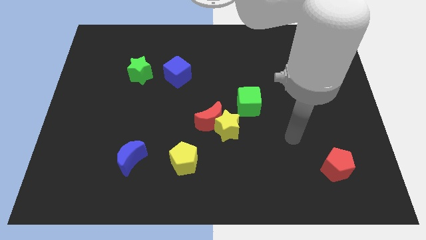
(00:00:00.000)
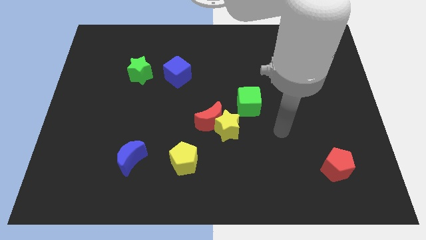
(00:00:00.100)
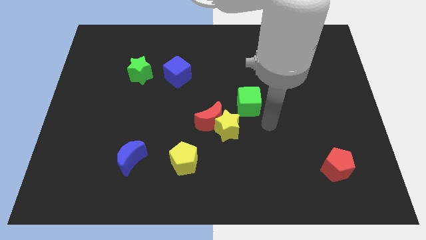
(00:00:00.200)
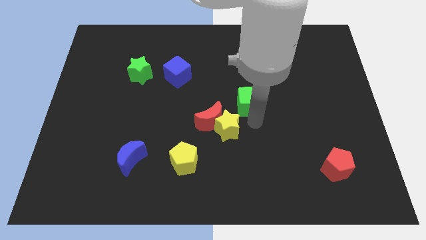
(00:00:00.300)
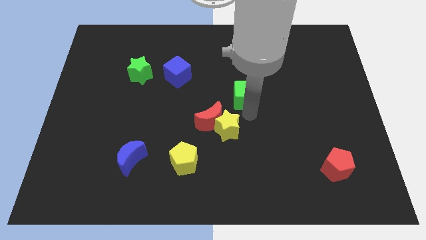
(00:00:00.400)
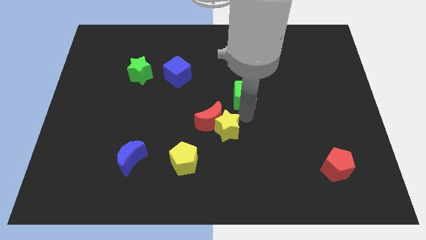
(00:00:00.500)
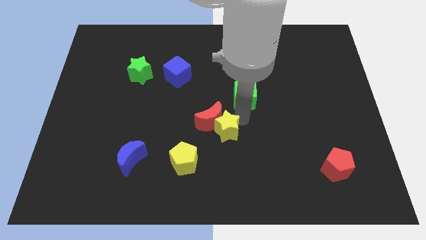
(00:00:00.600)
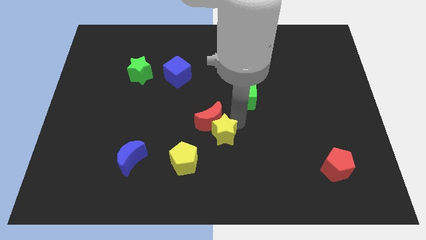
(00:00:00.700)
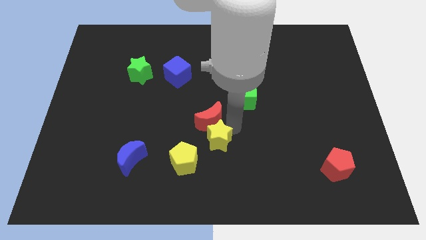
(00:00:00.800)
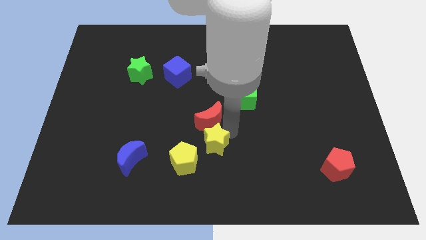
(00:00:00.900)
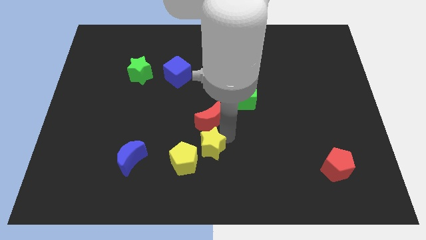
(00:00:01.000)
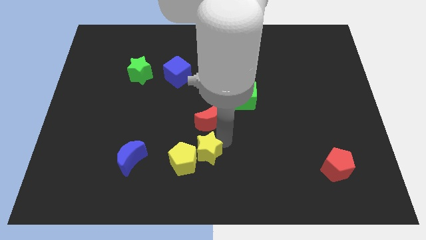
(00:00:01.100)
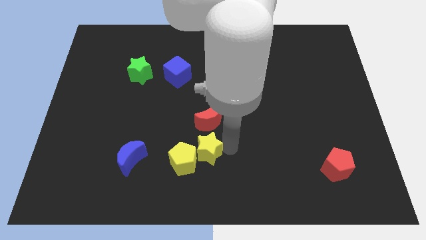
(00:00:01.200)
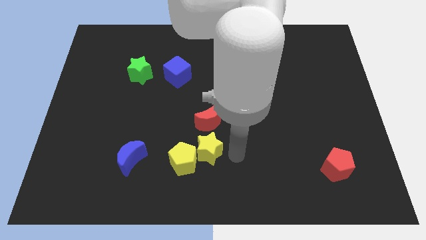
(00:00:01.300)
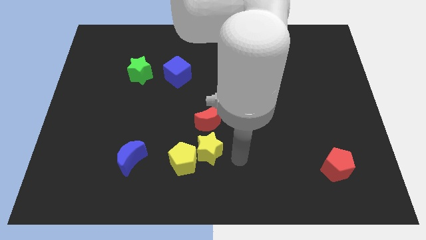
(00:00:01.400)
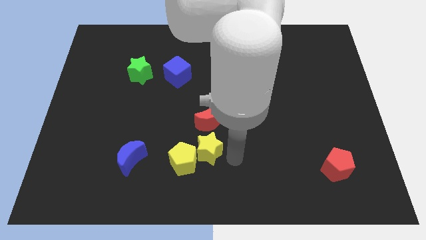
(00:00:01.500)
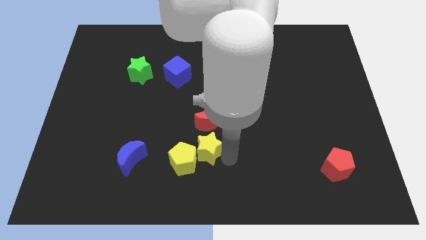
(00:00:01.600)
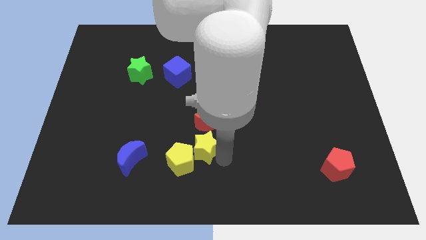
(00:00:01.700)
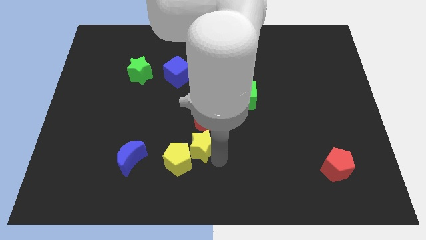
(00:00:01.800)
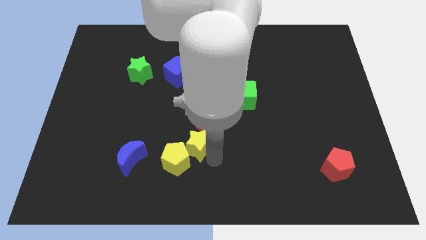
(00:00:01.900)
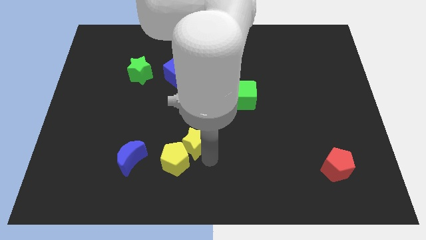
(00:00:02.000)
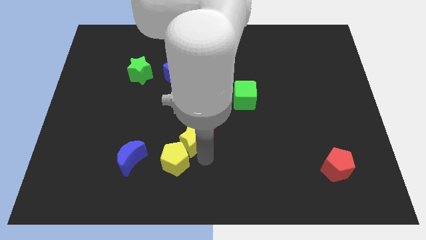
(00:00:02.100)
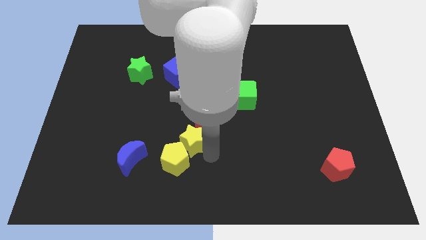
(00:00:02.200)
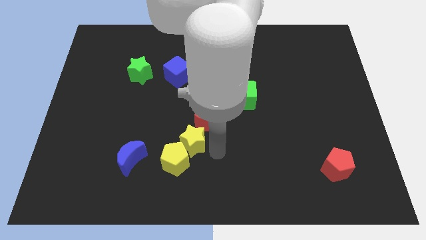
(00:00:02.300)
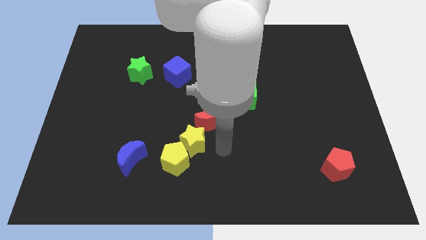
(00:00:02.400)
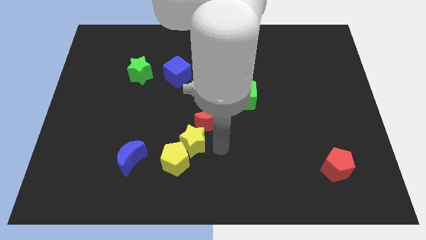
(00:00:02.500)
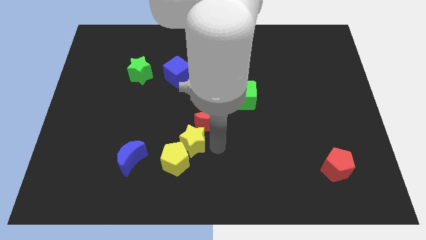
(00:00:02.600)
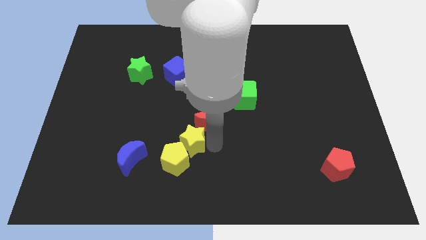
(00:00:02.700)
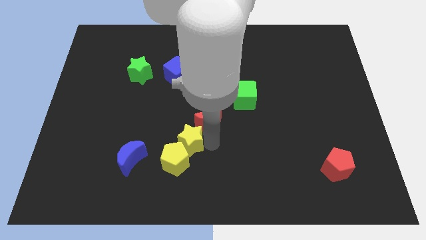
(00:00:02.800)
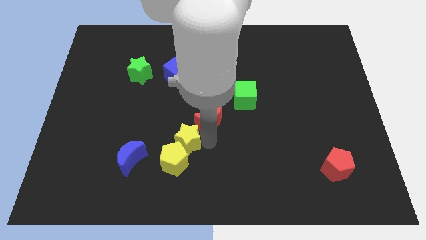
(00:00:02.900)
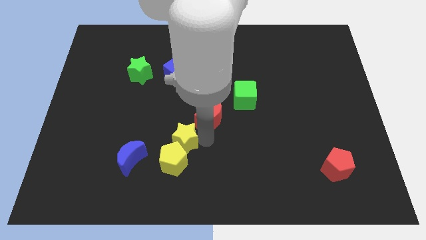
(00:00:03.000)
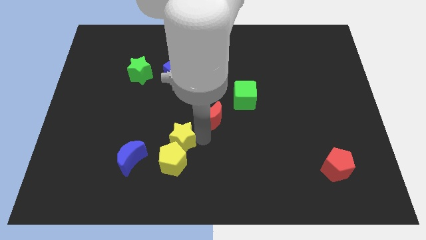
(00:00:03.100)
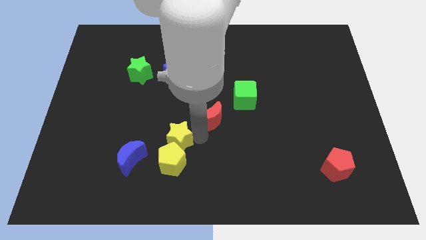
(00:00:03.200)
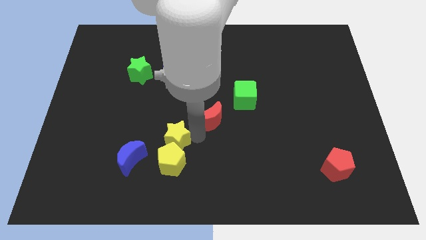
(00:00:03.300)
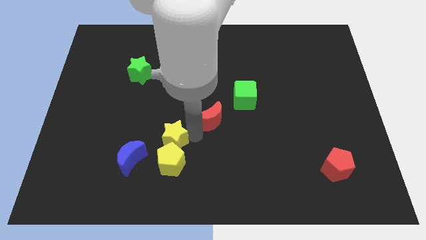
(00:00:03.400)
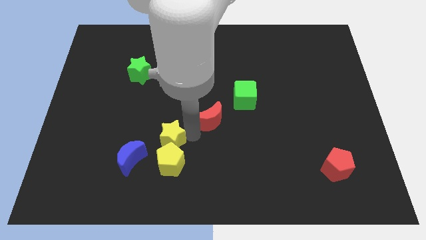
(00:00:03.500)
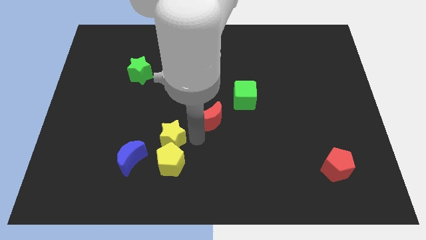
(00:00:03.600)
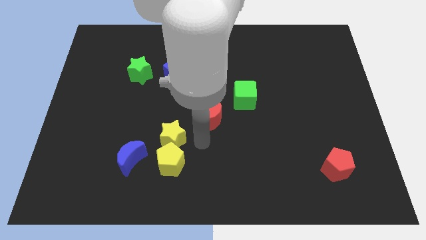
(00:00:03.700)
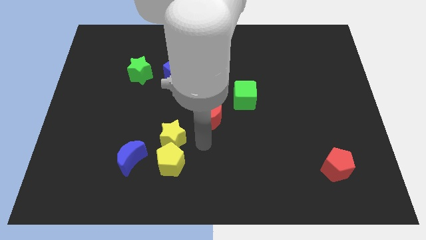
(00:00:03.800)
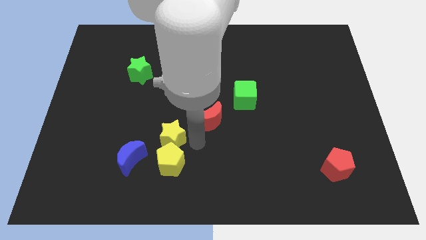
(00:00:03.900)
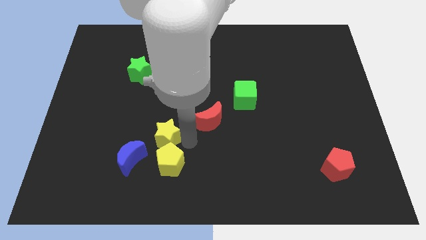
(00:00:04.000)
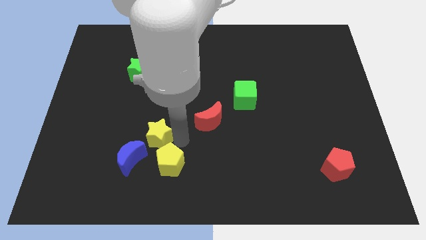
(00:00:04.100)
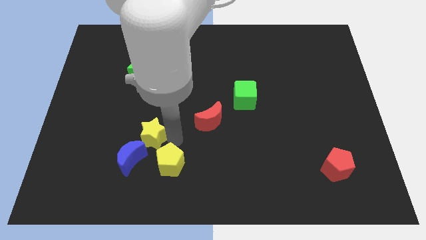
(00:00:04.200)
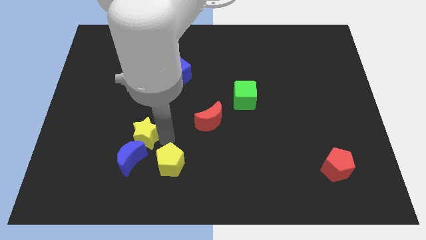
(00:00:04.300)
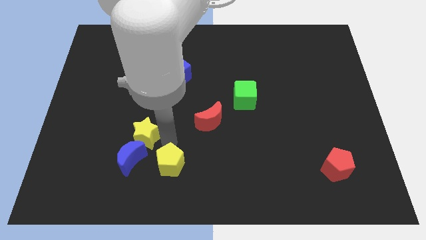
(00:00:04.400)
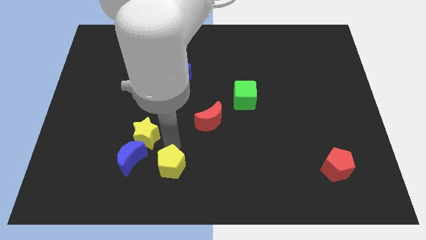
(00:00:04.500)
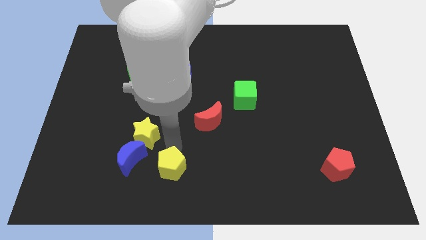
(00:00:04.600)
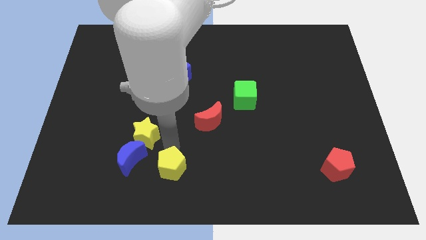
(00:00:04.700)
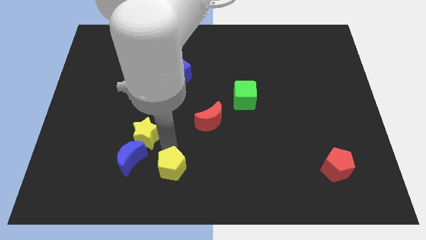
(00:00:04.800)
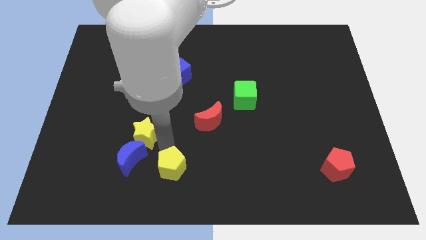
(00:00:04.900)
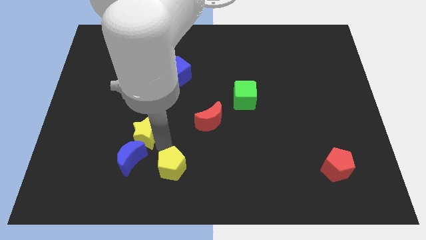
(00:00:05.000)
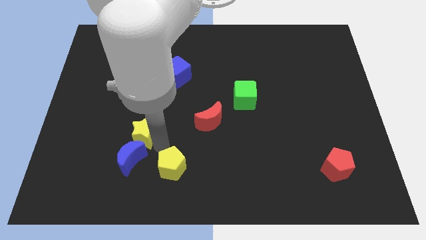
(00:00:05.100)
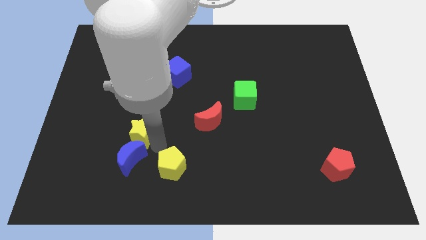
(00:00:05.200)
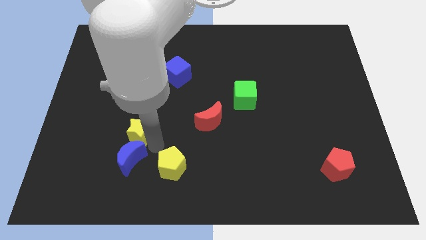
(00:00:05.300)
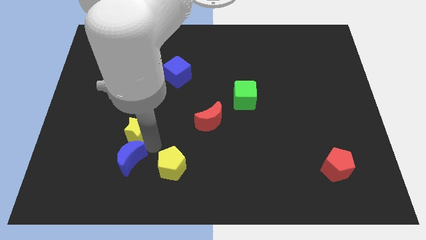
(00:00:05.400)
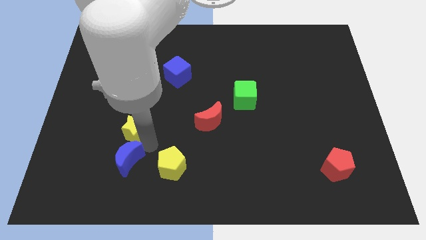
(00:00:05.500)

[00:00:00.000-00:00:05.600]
move the yellow star to the left

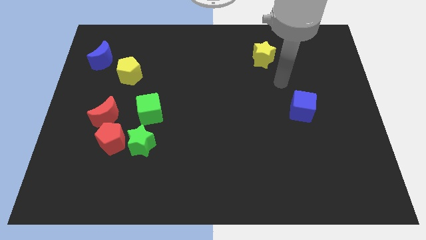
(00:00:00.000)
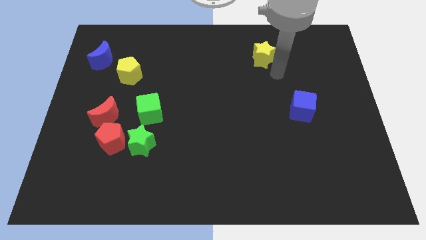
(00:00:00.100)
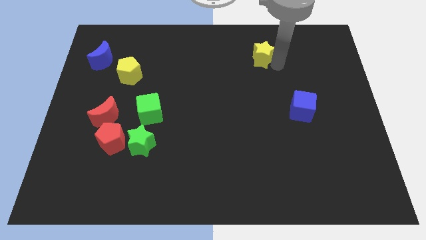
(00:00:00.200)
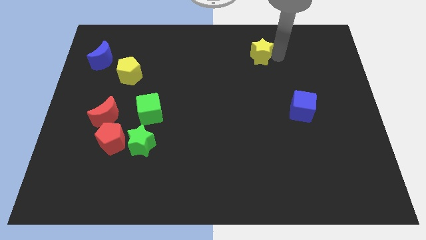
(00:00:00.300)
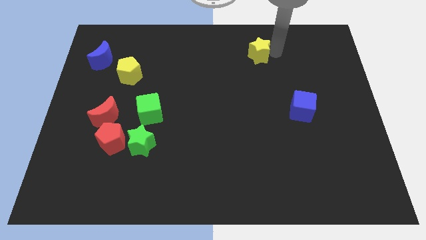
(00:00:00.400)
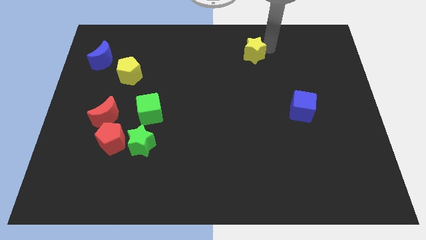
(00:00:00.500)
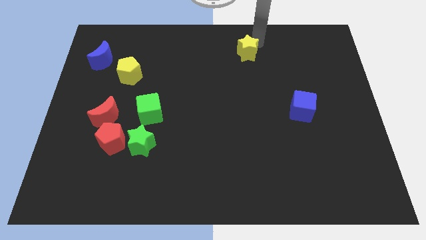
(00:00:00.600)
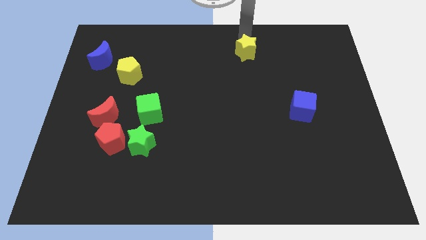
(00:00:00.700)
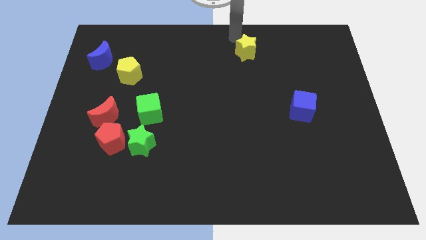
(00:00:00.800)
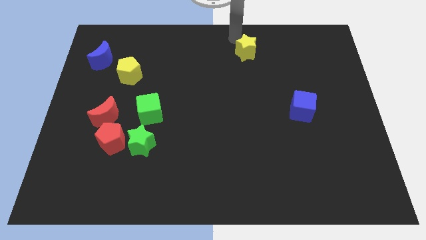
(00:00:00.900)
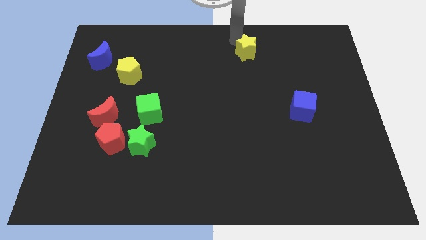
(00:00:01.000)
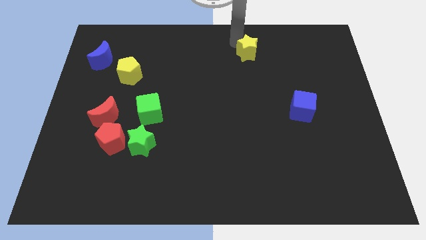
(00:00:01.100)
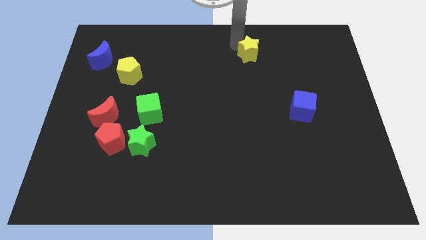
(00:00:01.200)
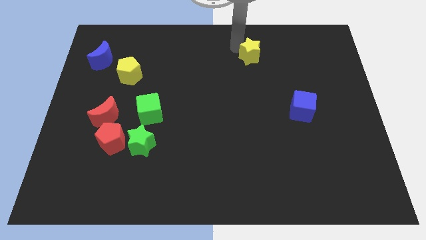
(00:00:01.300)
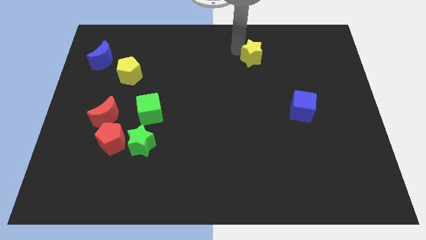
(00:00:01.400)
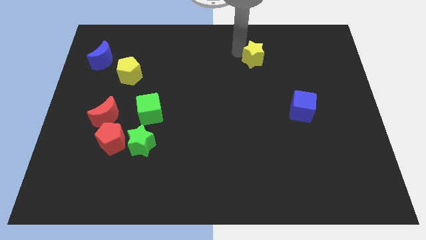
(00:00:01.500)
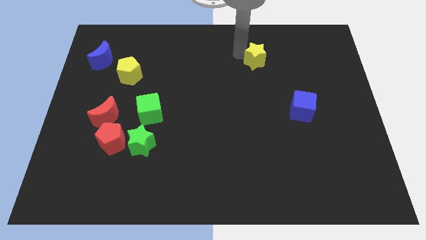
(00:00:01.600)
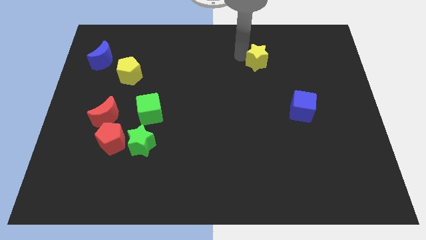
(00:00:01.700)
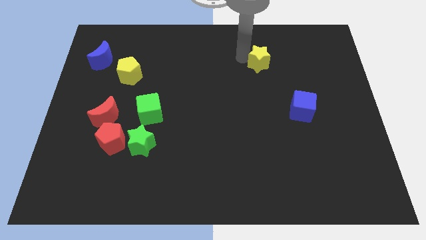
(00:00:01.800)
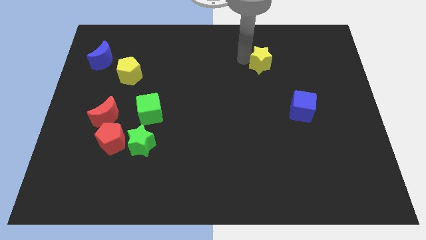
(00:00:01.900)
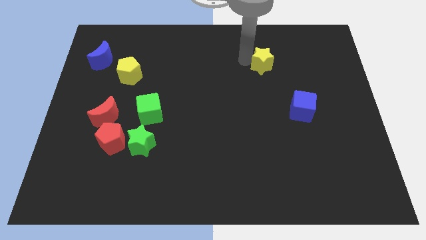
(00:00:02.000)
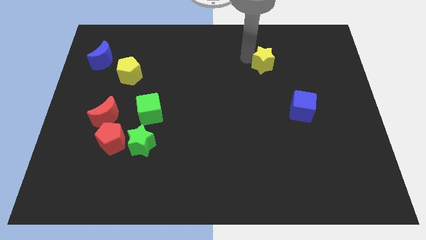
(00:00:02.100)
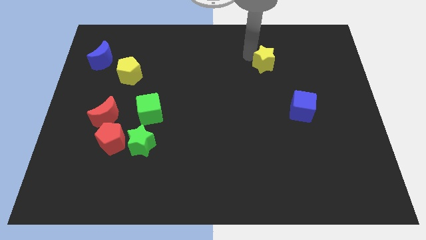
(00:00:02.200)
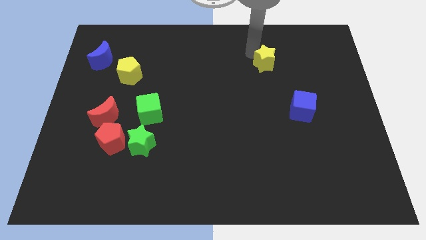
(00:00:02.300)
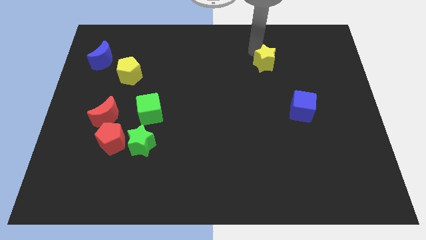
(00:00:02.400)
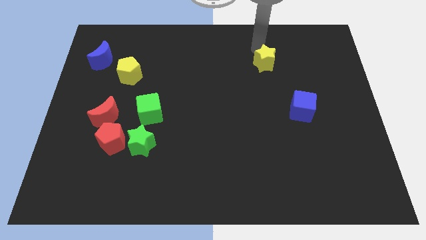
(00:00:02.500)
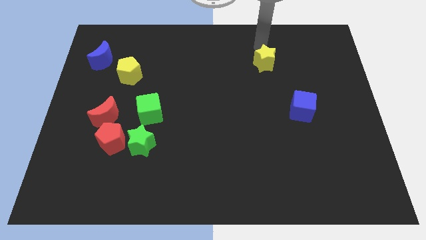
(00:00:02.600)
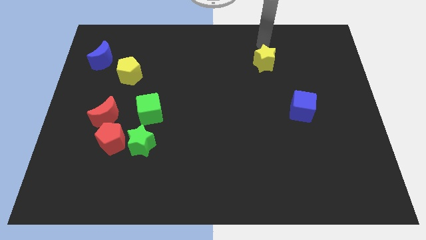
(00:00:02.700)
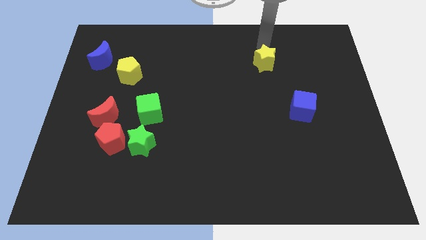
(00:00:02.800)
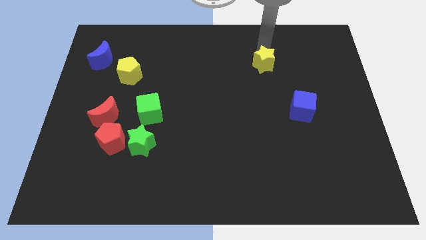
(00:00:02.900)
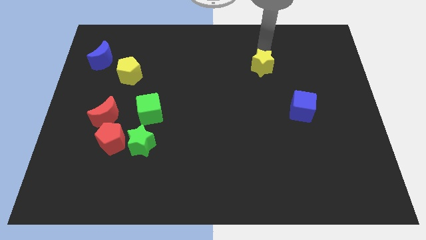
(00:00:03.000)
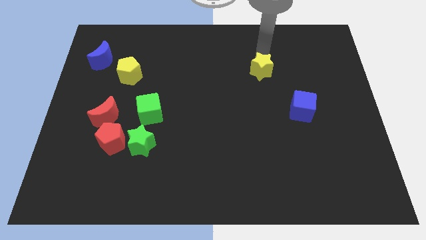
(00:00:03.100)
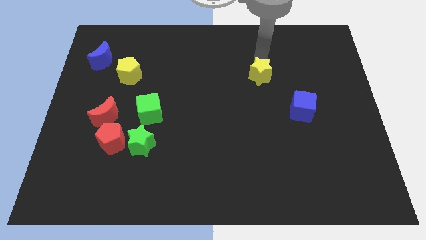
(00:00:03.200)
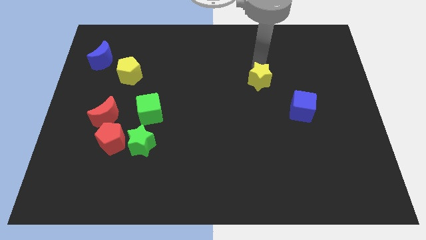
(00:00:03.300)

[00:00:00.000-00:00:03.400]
slightly push the yellow star down
